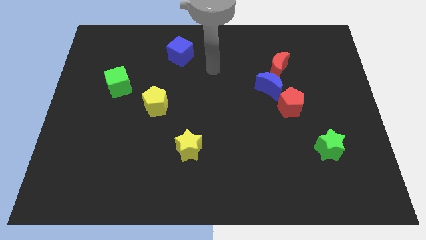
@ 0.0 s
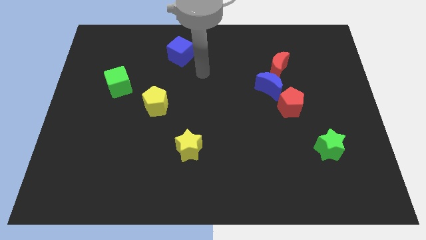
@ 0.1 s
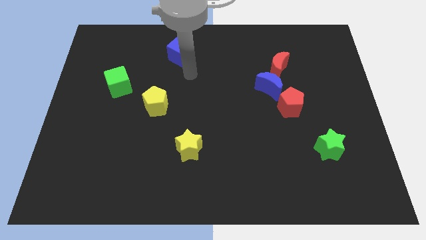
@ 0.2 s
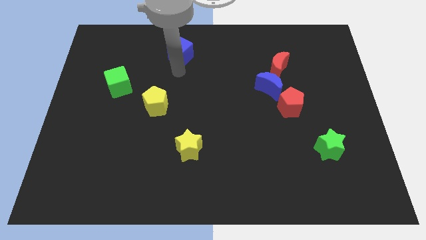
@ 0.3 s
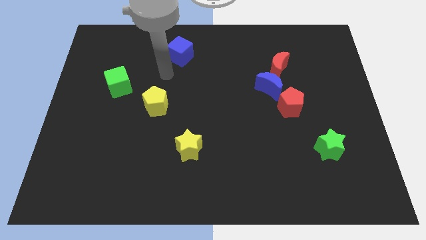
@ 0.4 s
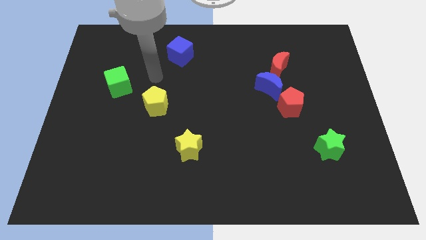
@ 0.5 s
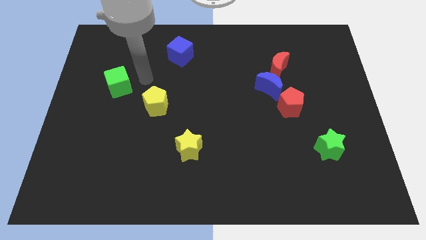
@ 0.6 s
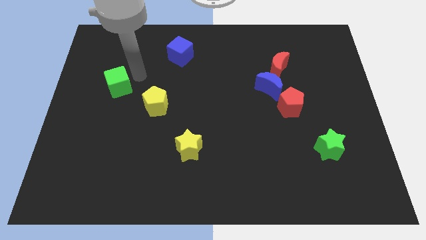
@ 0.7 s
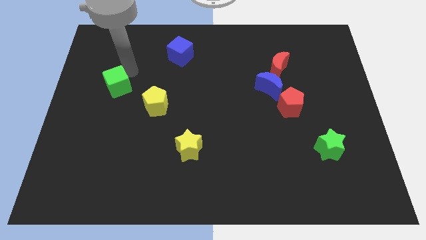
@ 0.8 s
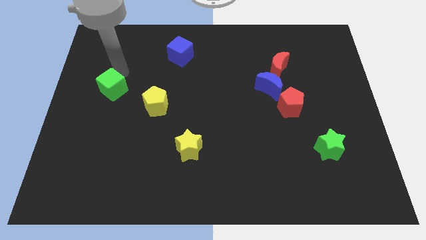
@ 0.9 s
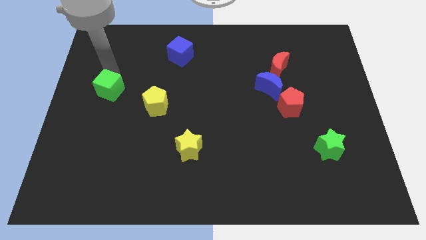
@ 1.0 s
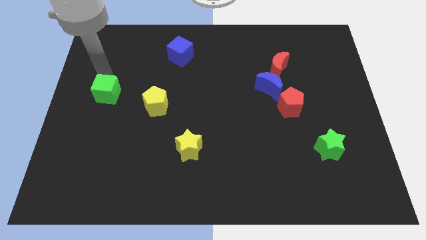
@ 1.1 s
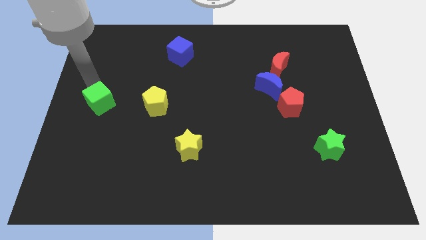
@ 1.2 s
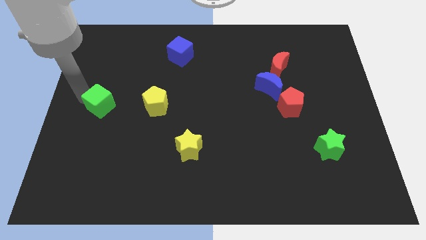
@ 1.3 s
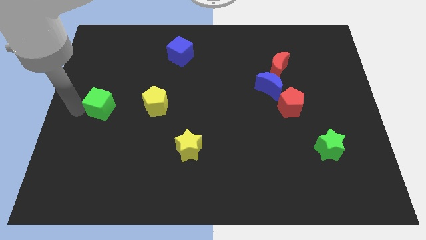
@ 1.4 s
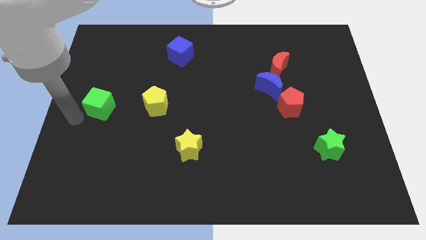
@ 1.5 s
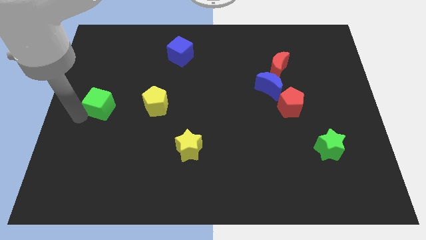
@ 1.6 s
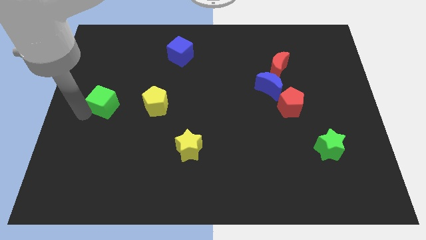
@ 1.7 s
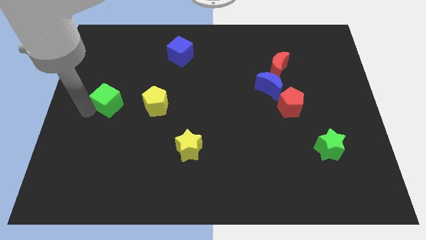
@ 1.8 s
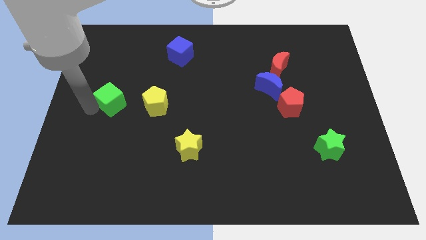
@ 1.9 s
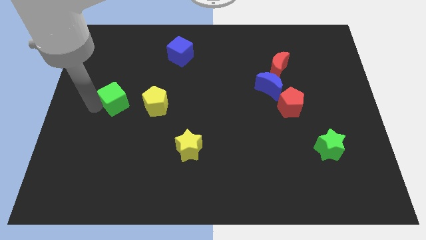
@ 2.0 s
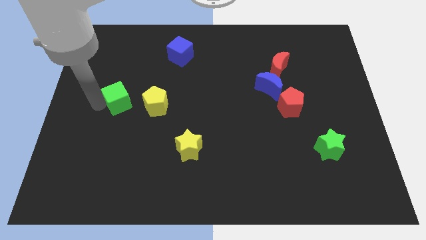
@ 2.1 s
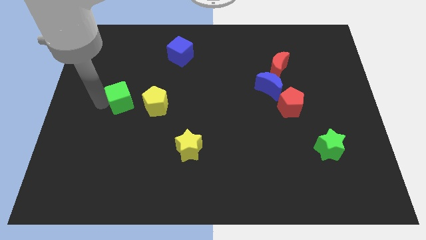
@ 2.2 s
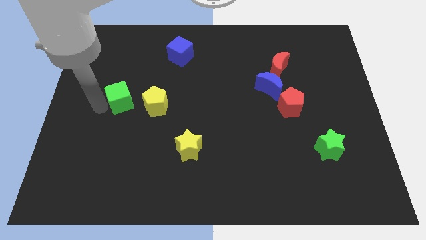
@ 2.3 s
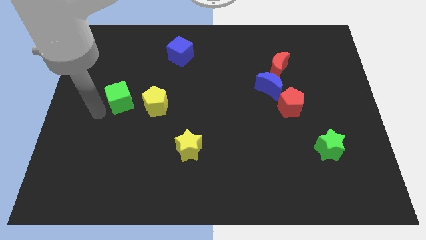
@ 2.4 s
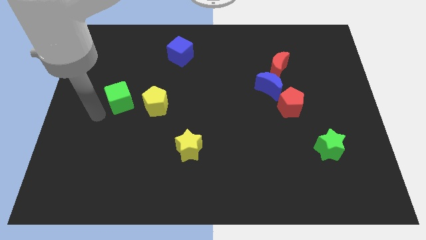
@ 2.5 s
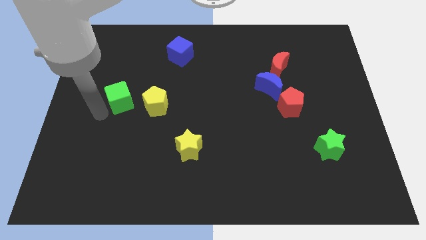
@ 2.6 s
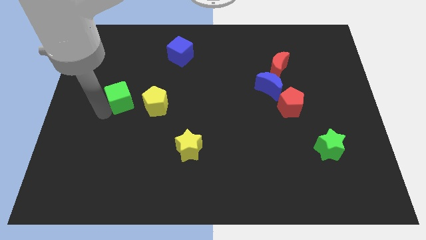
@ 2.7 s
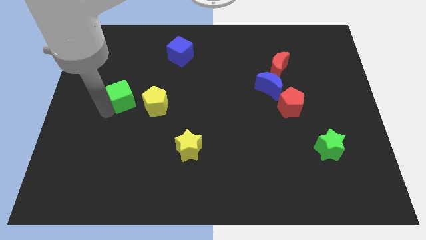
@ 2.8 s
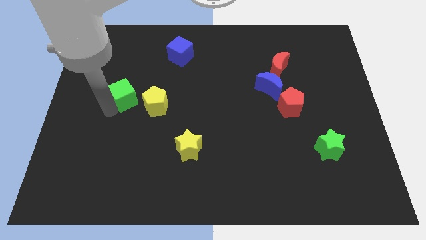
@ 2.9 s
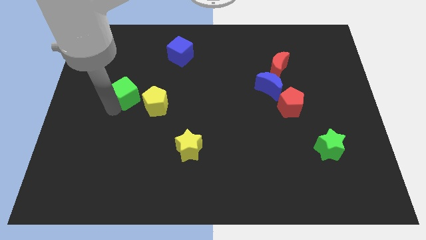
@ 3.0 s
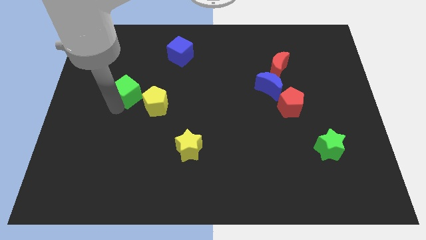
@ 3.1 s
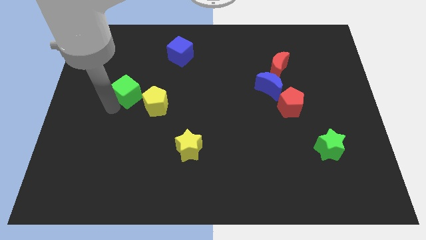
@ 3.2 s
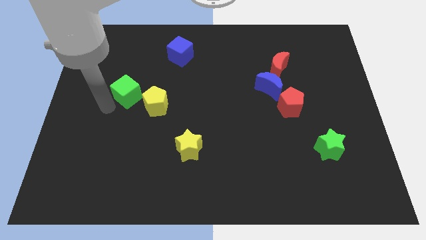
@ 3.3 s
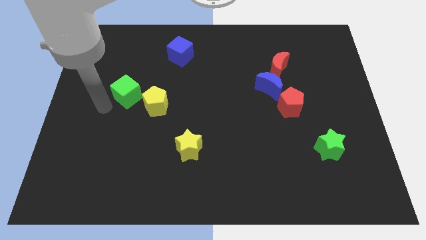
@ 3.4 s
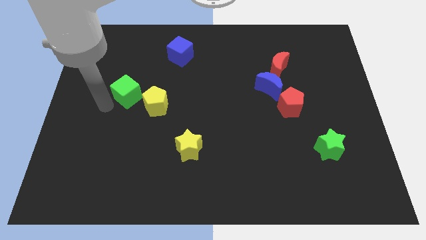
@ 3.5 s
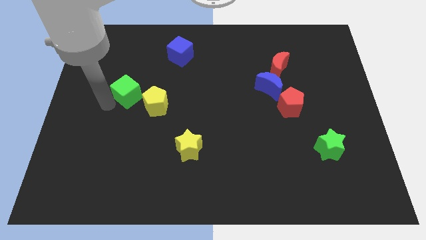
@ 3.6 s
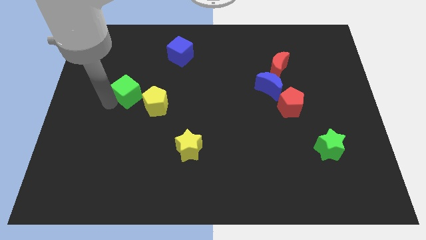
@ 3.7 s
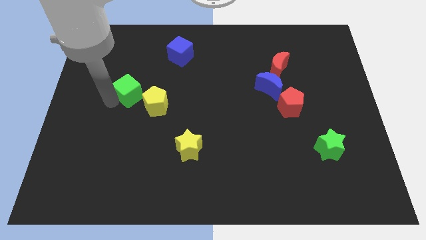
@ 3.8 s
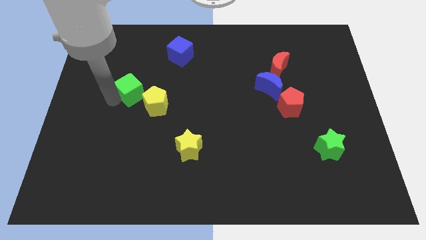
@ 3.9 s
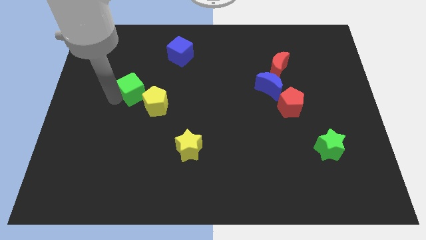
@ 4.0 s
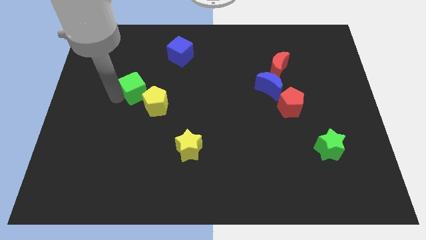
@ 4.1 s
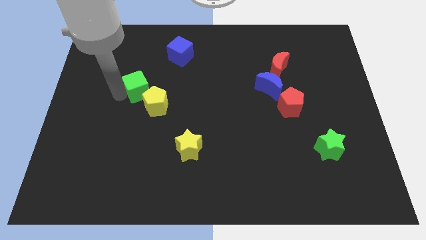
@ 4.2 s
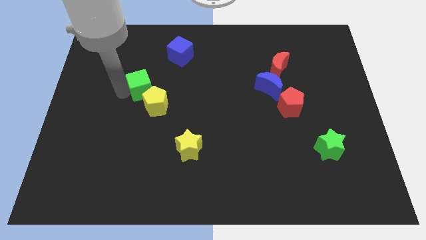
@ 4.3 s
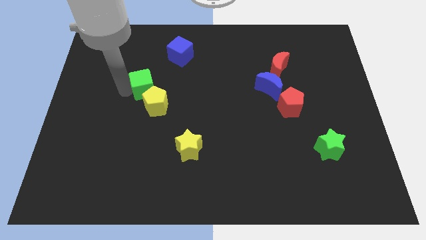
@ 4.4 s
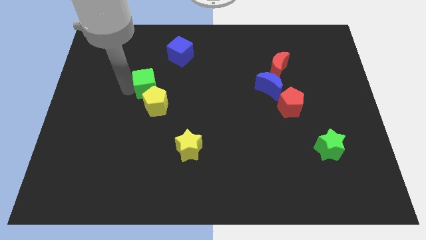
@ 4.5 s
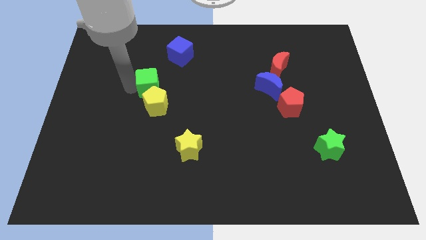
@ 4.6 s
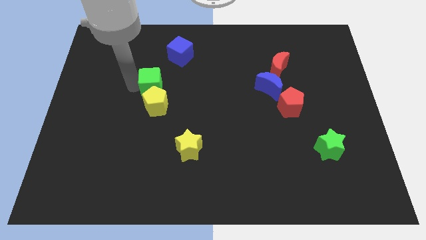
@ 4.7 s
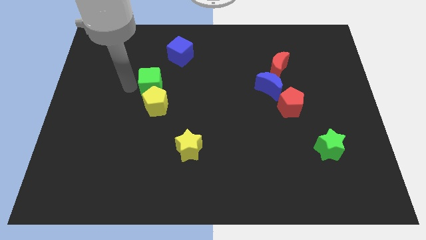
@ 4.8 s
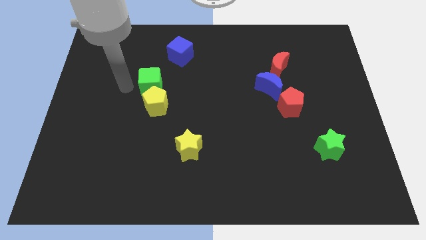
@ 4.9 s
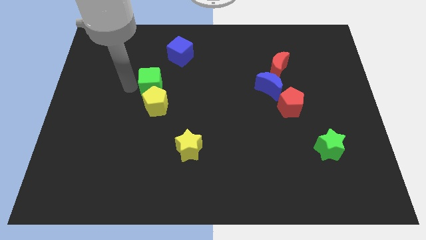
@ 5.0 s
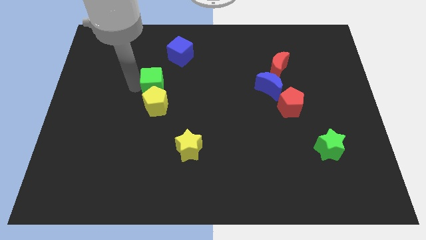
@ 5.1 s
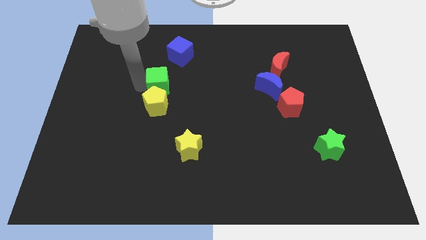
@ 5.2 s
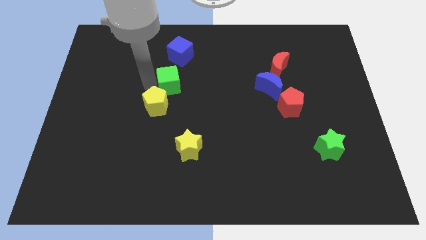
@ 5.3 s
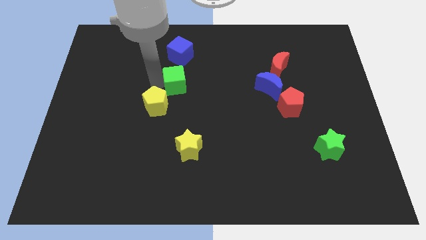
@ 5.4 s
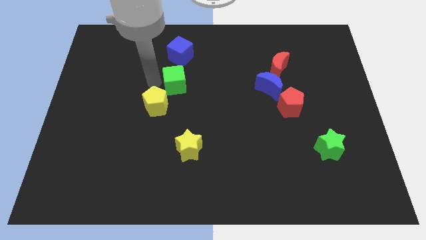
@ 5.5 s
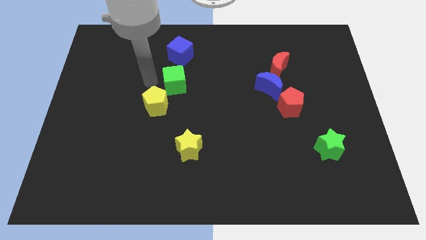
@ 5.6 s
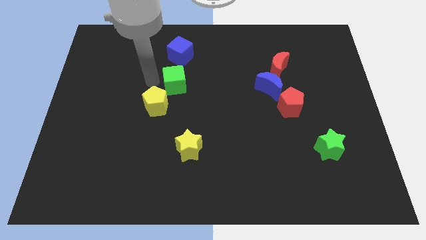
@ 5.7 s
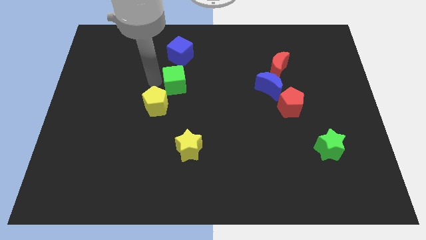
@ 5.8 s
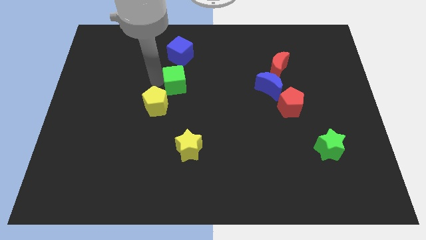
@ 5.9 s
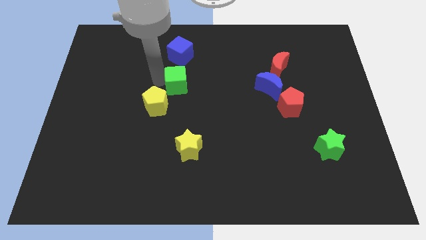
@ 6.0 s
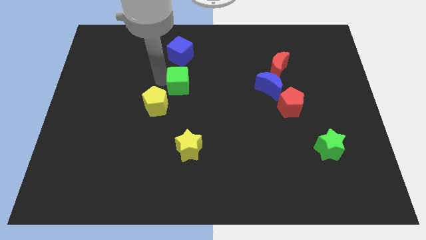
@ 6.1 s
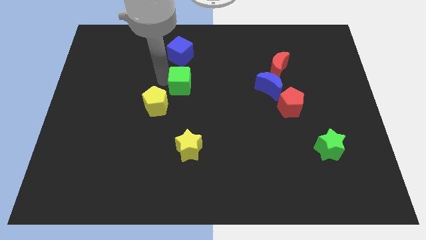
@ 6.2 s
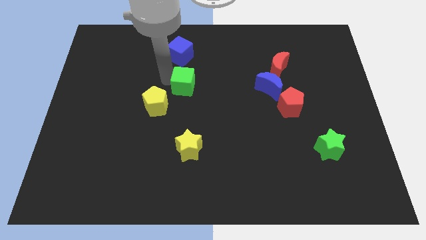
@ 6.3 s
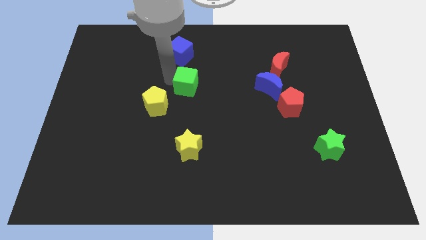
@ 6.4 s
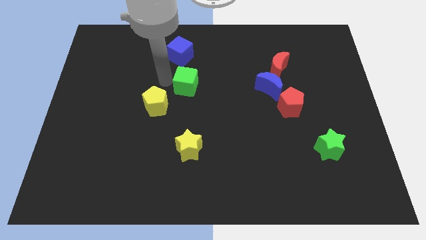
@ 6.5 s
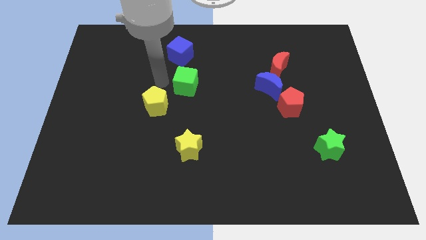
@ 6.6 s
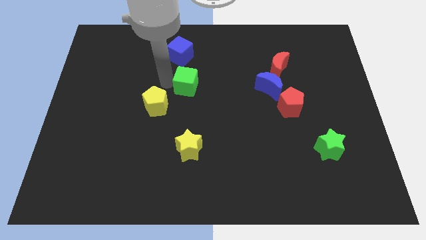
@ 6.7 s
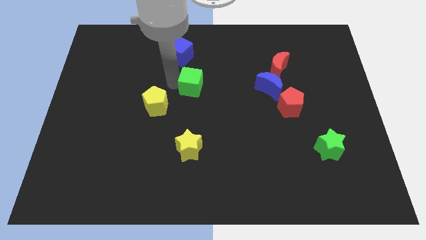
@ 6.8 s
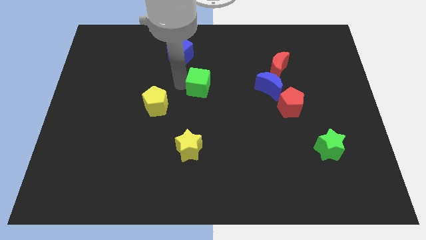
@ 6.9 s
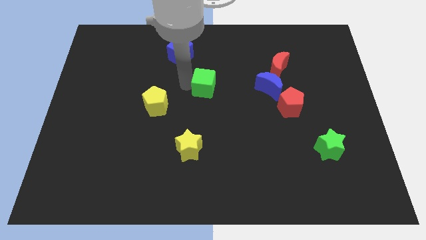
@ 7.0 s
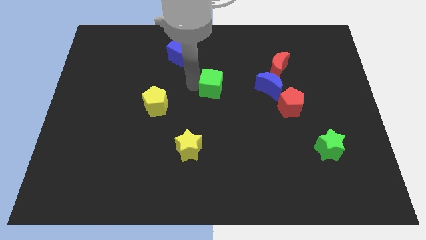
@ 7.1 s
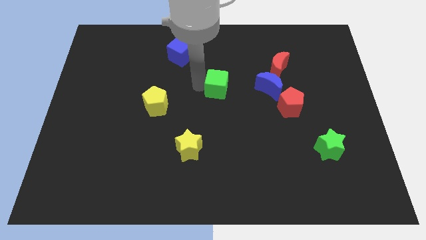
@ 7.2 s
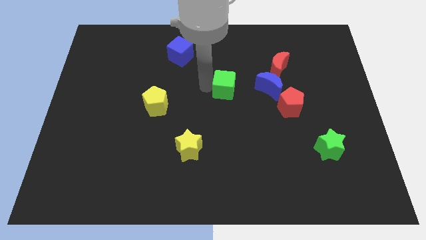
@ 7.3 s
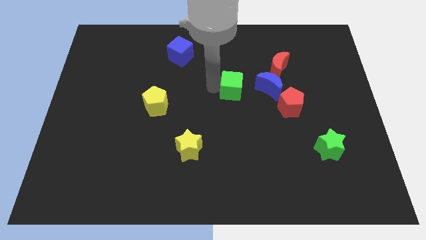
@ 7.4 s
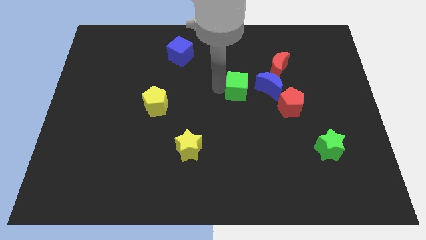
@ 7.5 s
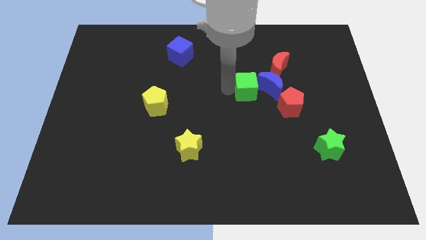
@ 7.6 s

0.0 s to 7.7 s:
put the green cube to the blue moon
